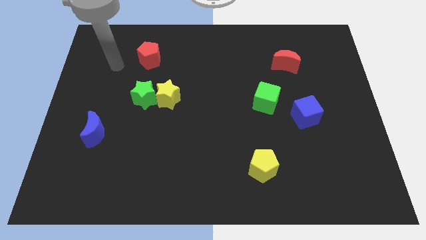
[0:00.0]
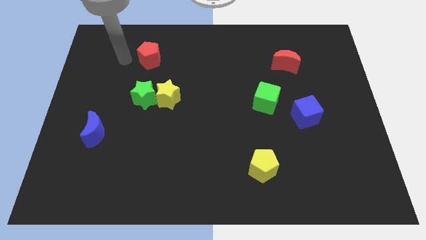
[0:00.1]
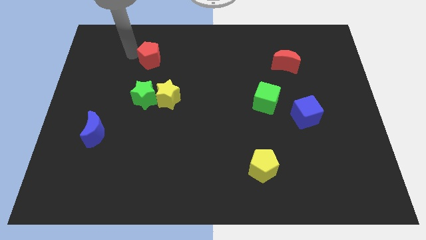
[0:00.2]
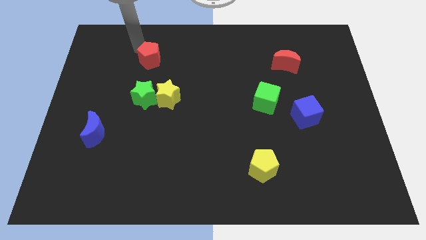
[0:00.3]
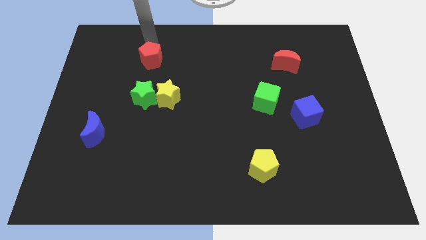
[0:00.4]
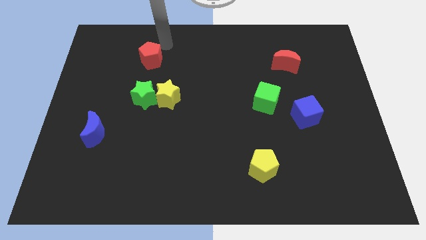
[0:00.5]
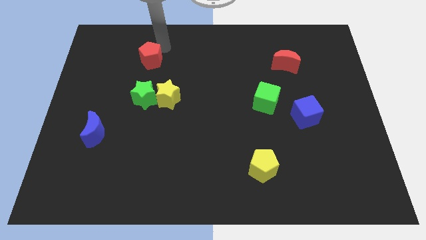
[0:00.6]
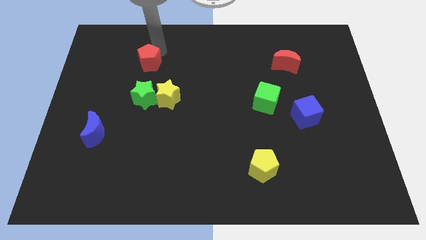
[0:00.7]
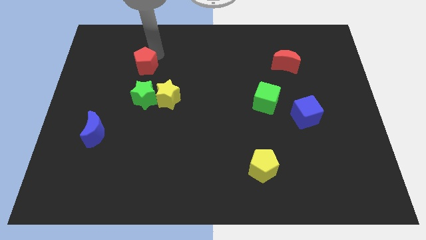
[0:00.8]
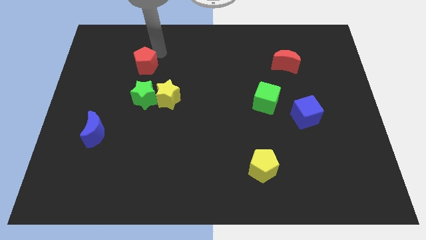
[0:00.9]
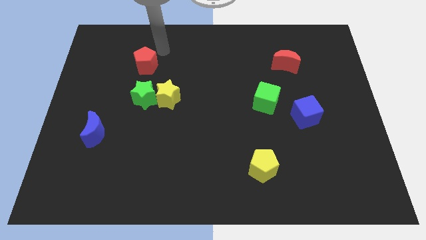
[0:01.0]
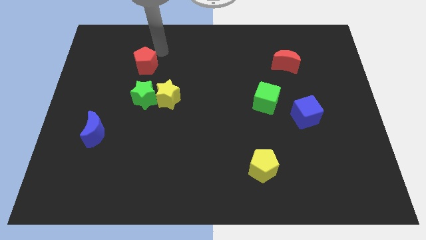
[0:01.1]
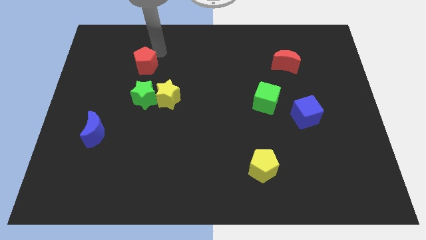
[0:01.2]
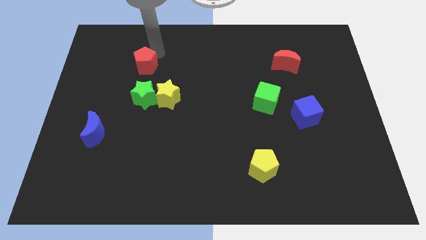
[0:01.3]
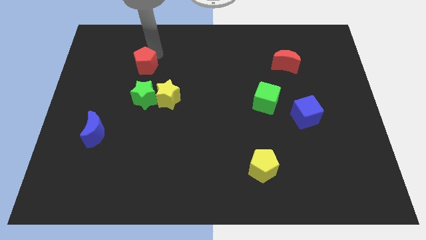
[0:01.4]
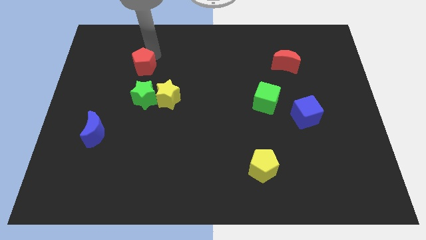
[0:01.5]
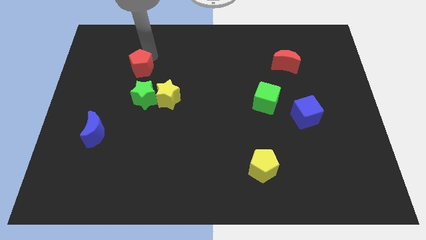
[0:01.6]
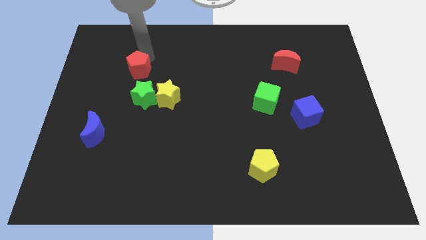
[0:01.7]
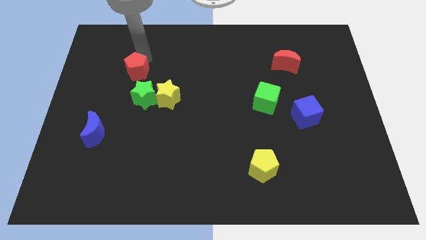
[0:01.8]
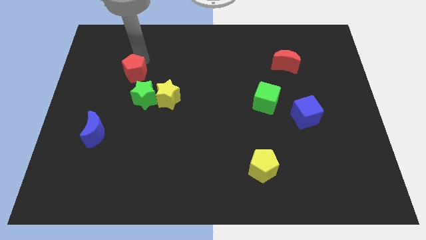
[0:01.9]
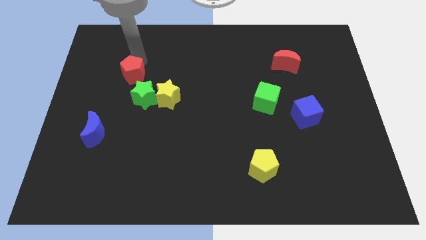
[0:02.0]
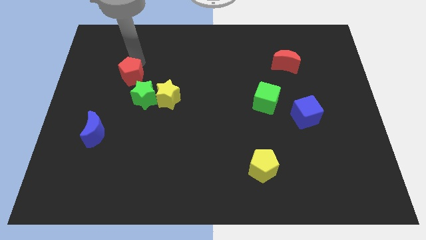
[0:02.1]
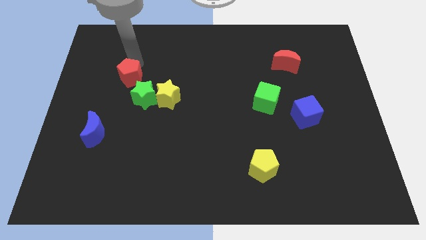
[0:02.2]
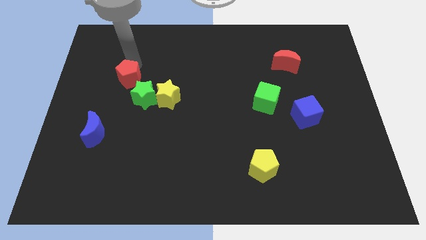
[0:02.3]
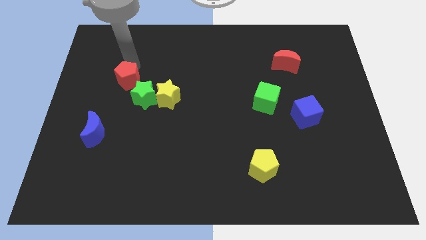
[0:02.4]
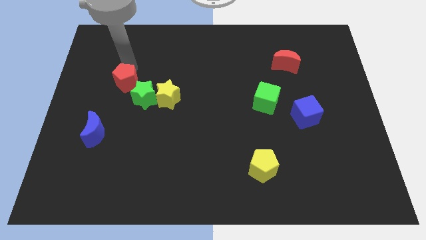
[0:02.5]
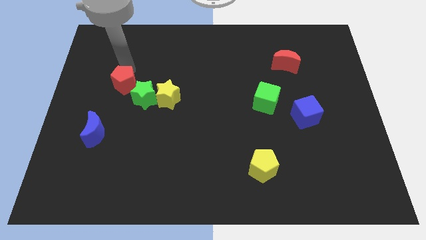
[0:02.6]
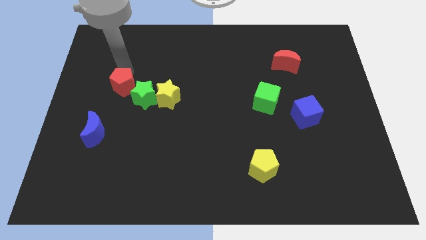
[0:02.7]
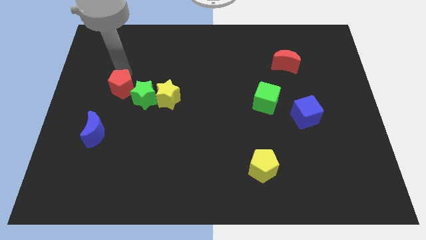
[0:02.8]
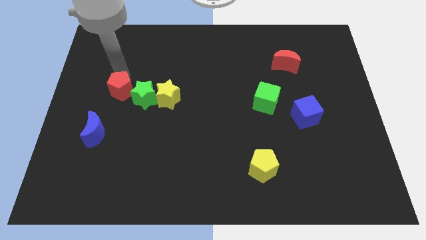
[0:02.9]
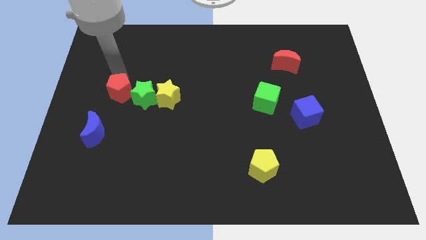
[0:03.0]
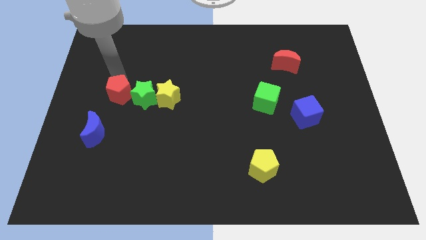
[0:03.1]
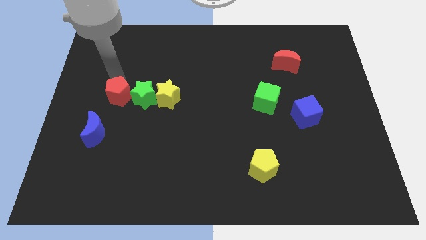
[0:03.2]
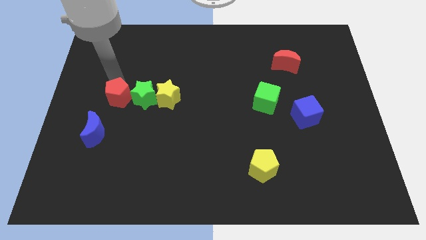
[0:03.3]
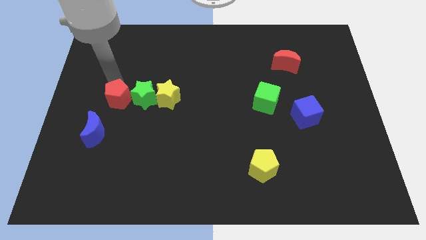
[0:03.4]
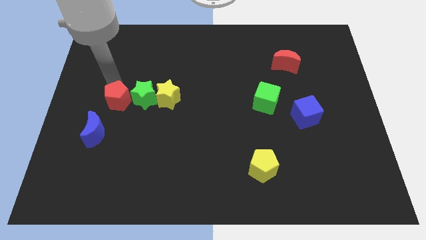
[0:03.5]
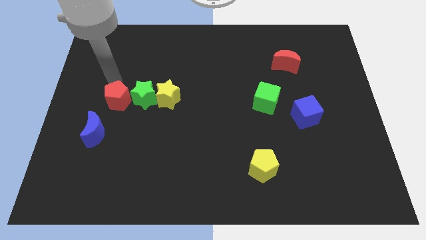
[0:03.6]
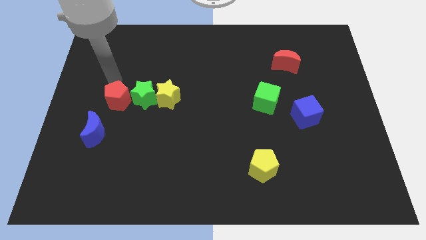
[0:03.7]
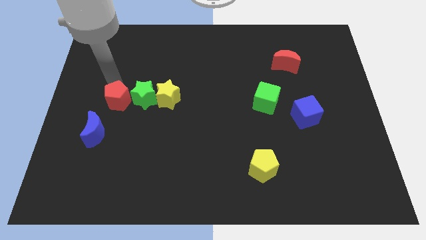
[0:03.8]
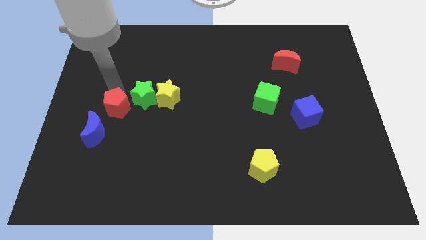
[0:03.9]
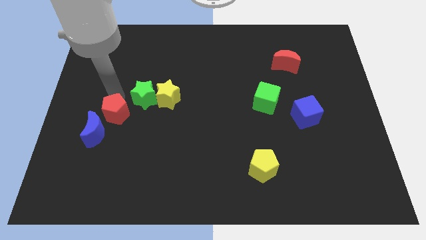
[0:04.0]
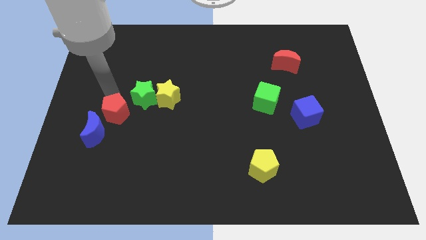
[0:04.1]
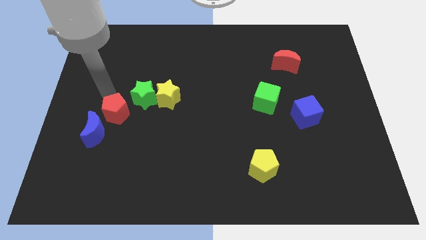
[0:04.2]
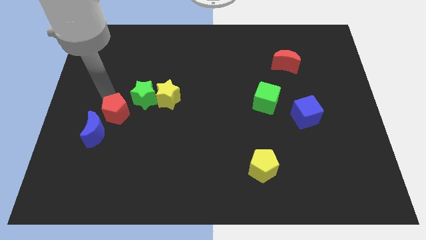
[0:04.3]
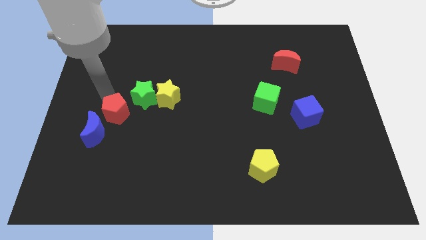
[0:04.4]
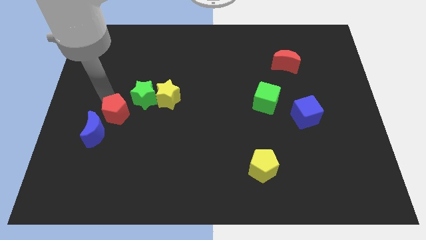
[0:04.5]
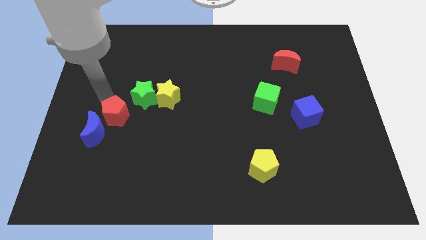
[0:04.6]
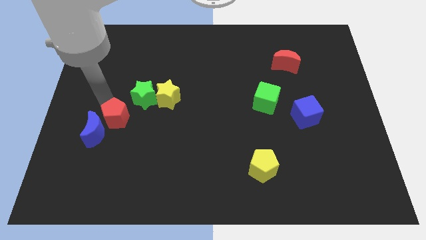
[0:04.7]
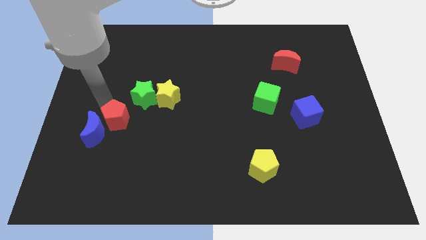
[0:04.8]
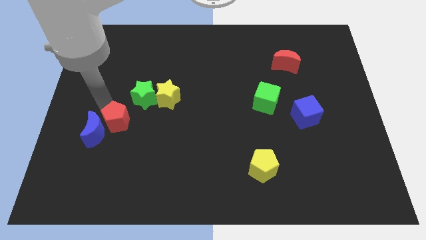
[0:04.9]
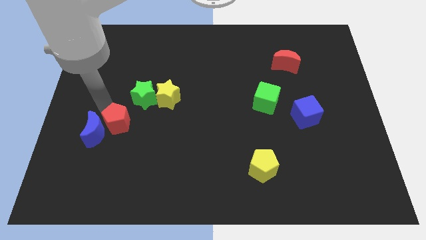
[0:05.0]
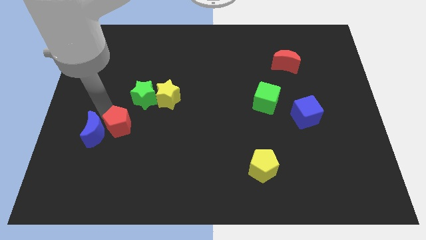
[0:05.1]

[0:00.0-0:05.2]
put the red pentagon diagonally down and to the right of the blue moon

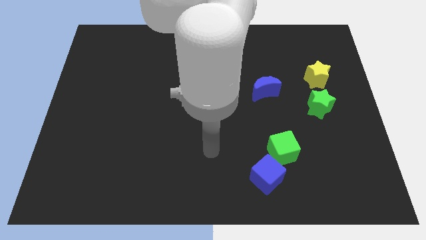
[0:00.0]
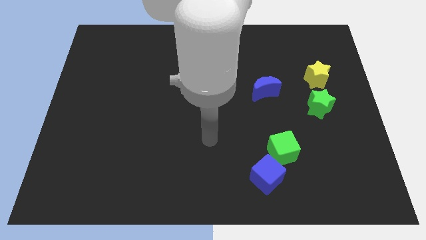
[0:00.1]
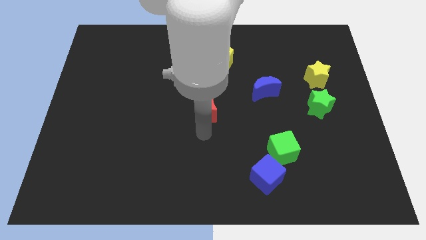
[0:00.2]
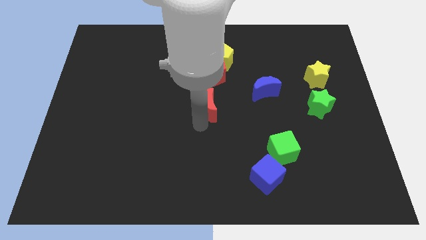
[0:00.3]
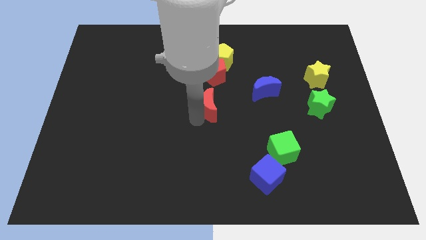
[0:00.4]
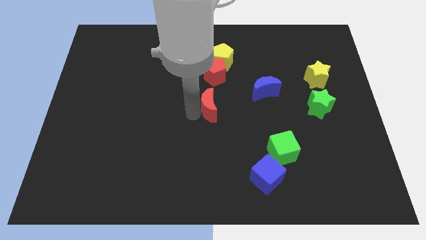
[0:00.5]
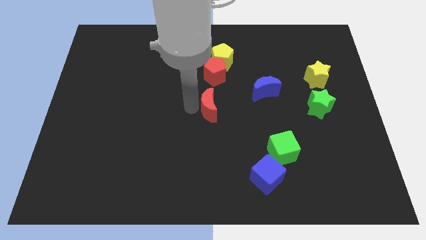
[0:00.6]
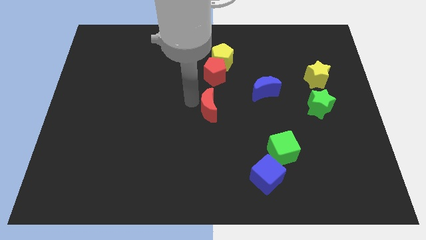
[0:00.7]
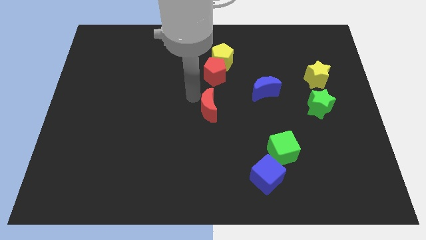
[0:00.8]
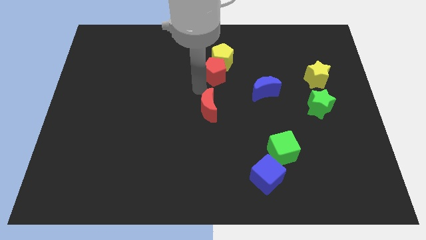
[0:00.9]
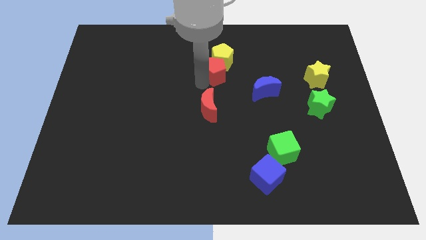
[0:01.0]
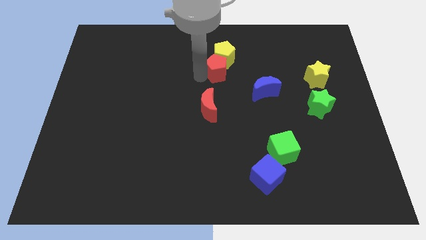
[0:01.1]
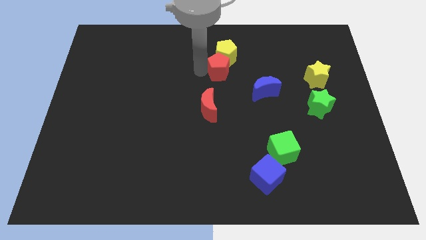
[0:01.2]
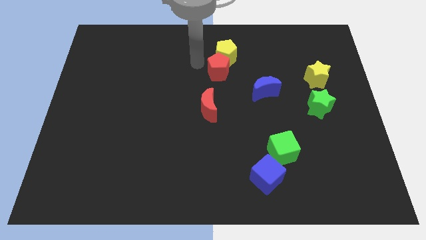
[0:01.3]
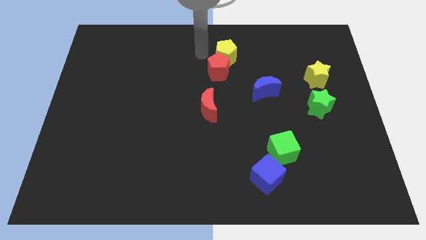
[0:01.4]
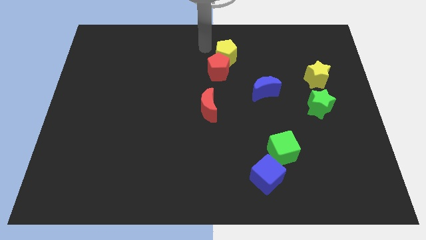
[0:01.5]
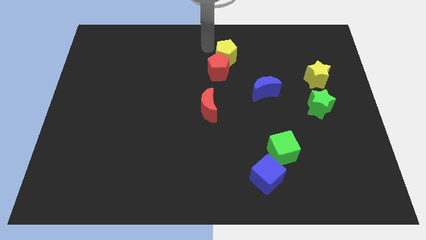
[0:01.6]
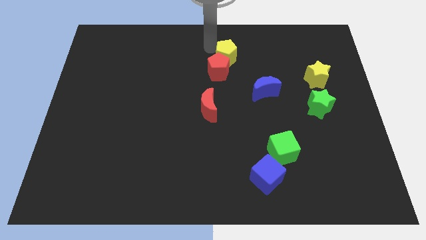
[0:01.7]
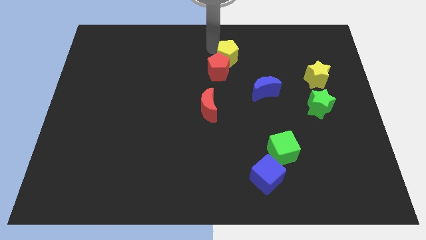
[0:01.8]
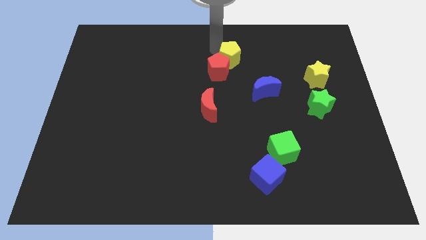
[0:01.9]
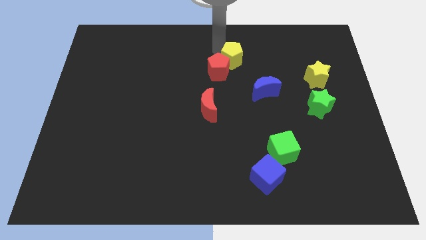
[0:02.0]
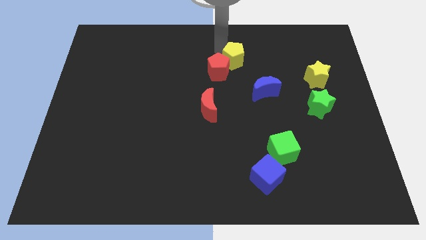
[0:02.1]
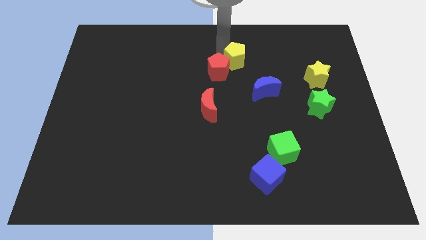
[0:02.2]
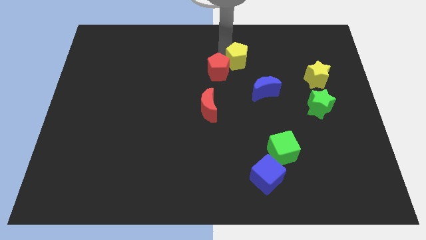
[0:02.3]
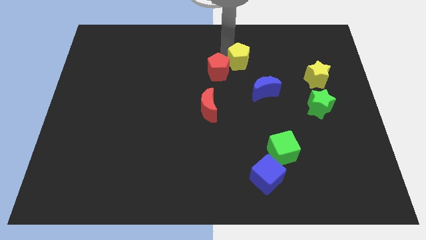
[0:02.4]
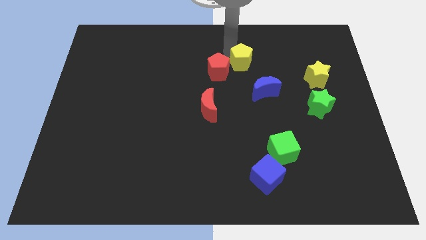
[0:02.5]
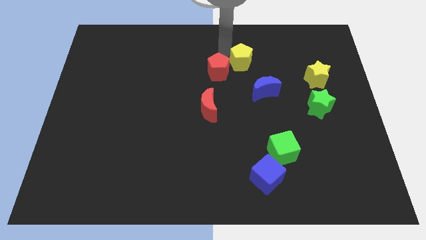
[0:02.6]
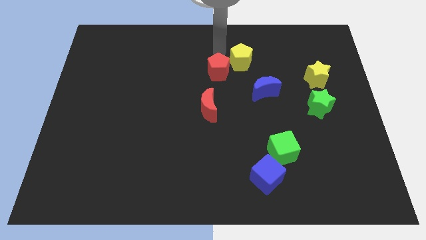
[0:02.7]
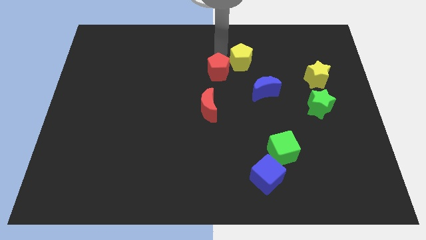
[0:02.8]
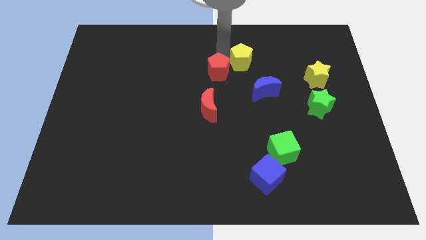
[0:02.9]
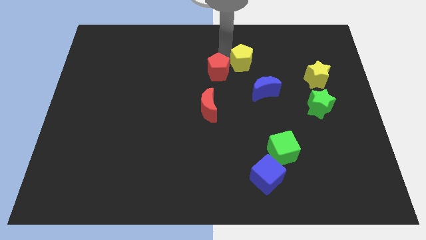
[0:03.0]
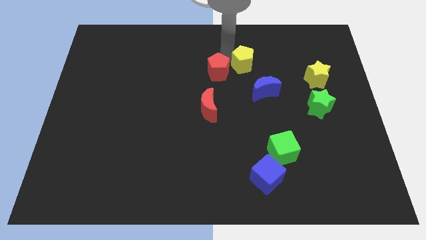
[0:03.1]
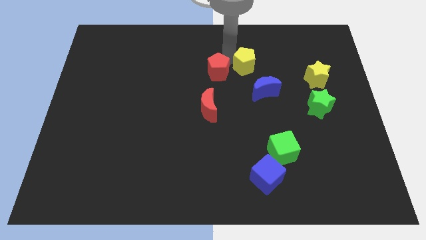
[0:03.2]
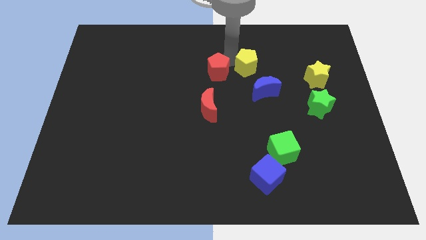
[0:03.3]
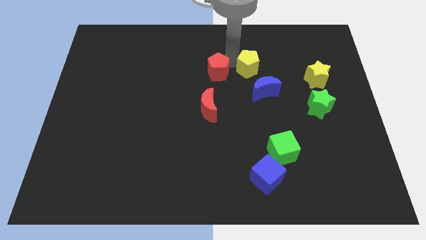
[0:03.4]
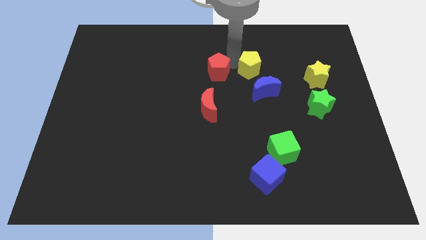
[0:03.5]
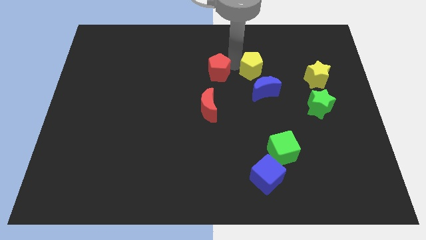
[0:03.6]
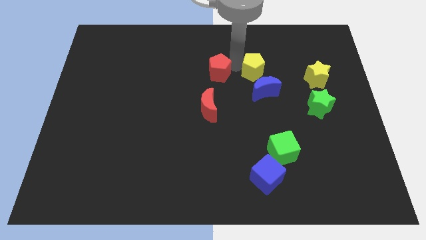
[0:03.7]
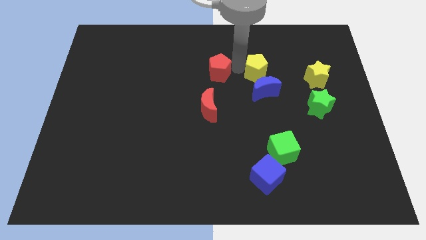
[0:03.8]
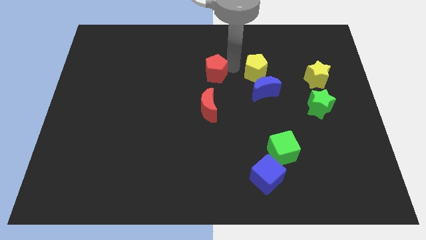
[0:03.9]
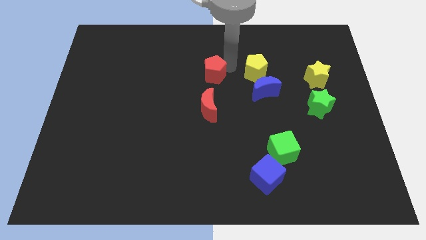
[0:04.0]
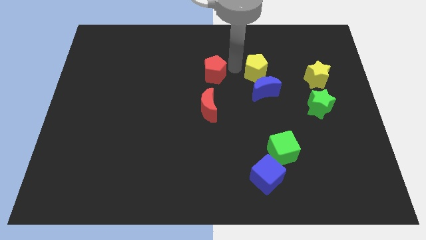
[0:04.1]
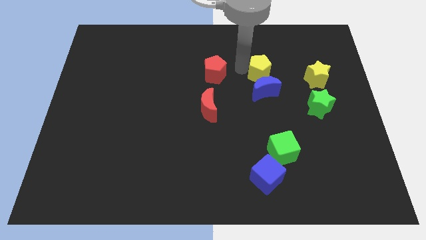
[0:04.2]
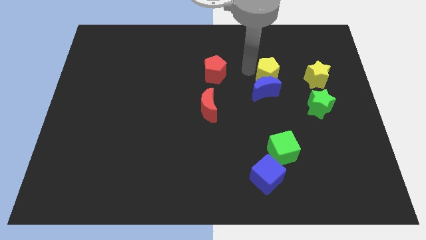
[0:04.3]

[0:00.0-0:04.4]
slide the yellow pentagon to the top right of the blue moon
